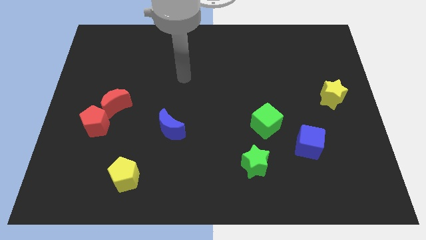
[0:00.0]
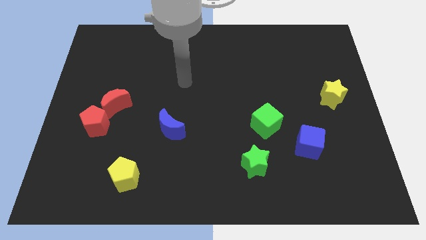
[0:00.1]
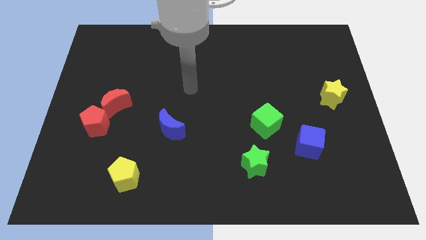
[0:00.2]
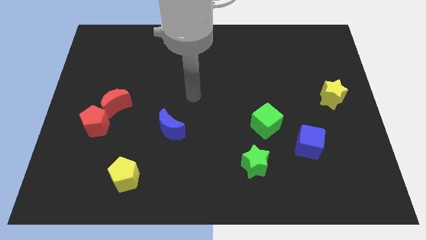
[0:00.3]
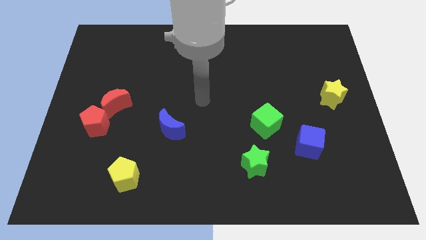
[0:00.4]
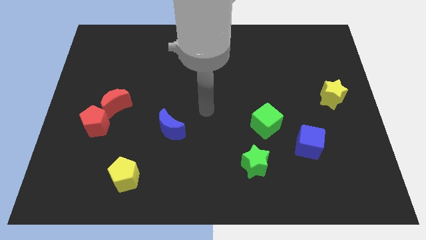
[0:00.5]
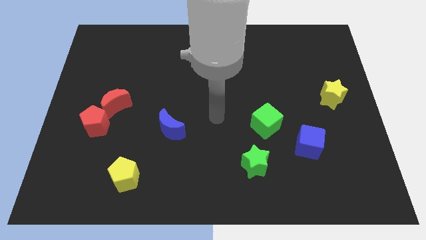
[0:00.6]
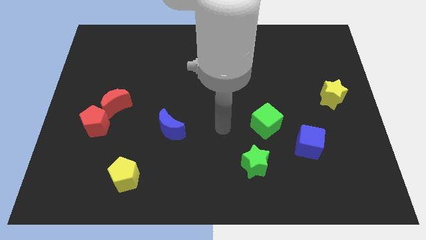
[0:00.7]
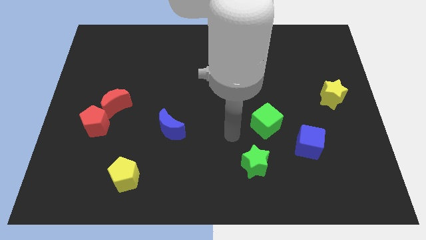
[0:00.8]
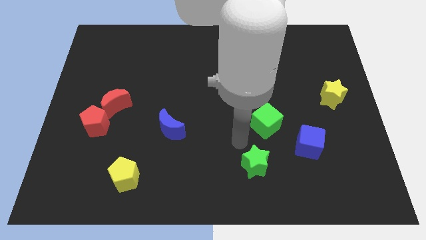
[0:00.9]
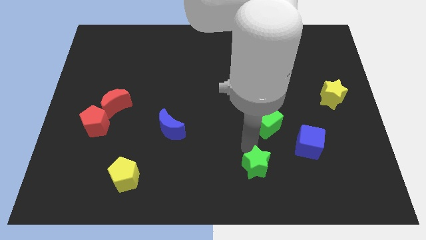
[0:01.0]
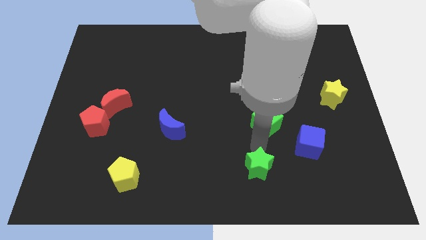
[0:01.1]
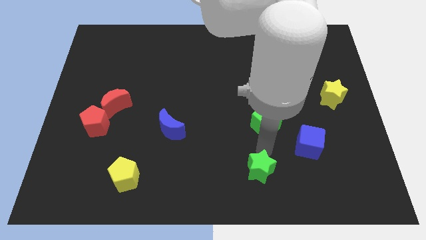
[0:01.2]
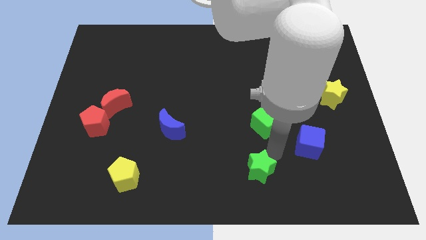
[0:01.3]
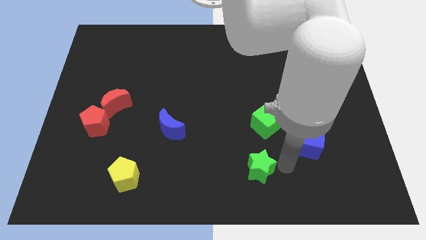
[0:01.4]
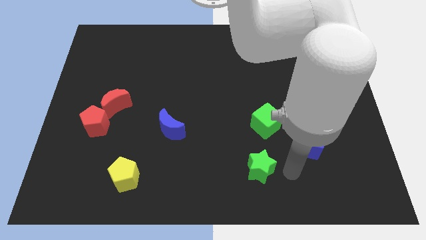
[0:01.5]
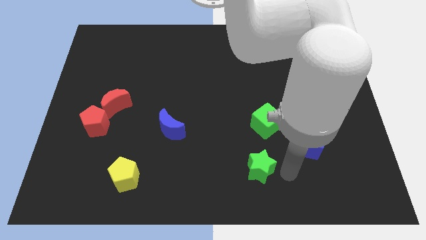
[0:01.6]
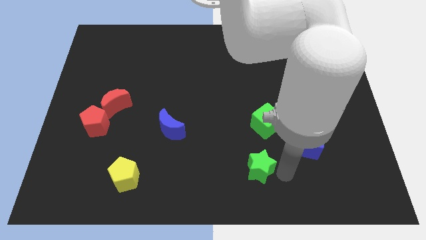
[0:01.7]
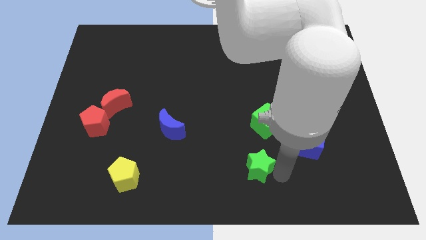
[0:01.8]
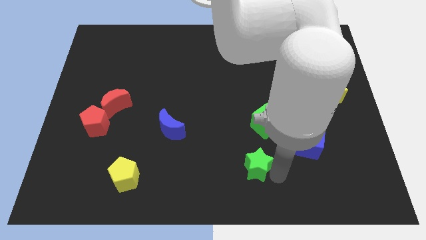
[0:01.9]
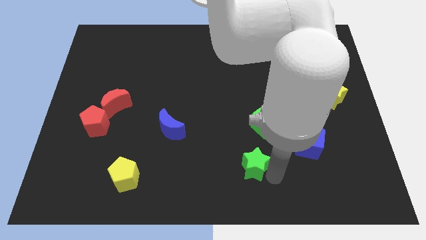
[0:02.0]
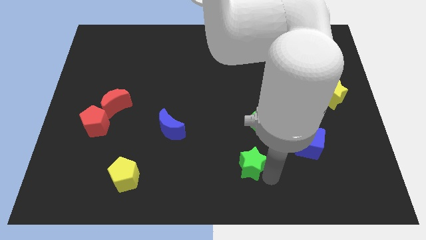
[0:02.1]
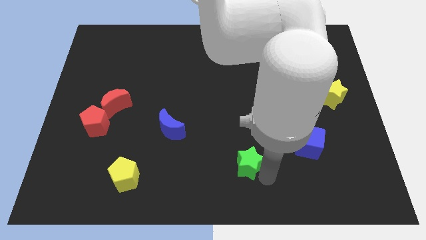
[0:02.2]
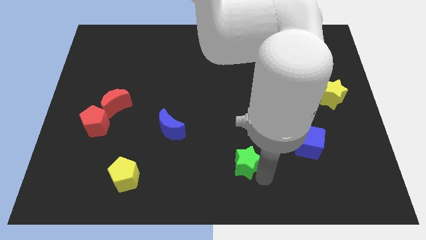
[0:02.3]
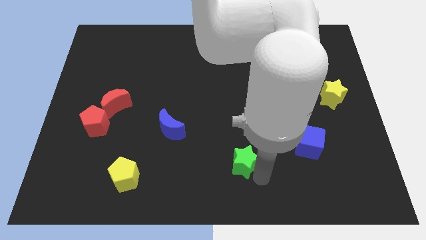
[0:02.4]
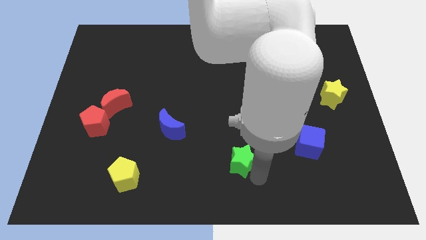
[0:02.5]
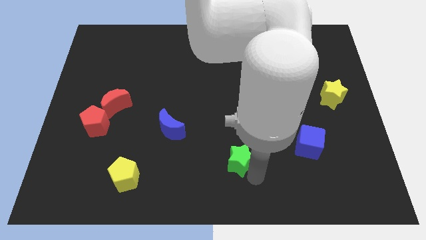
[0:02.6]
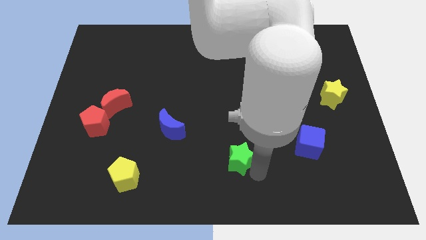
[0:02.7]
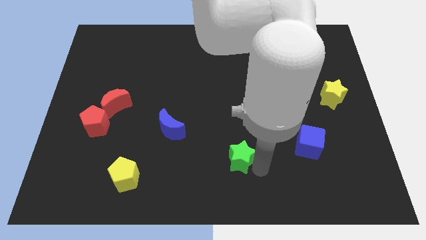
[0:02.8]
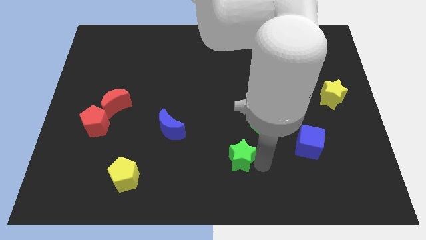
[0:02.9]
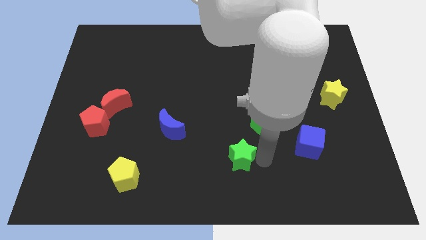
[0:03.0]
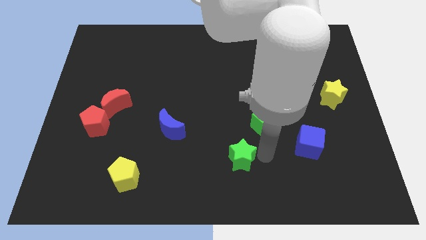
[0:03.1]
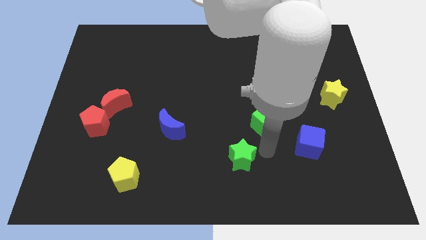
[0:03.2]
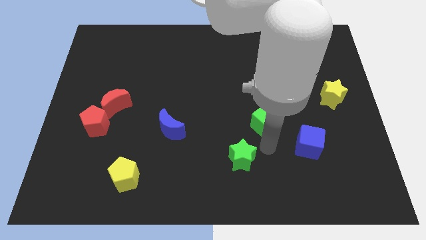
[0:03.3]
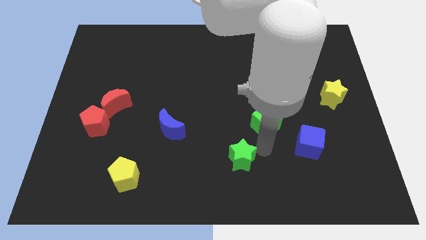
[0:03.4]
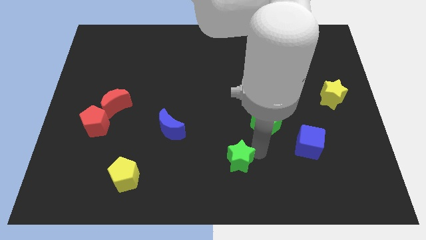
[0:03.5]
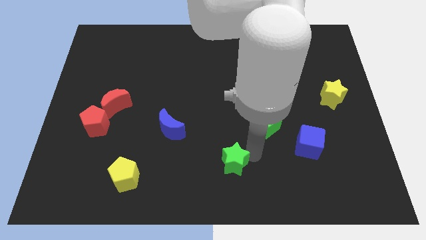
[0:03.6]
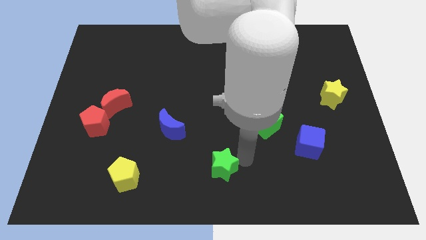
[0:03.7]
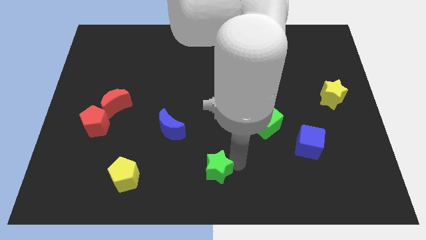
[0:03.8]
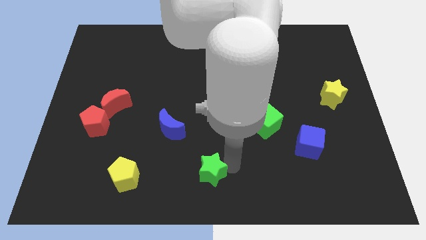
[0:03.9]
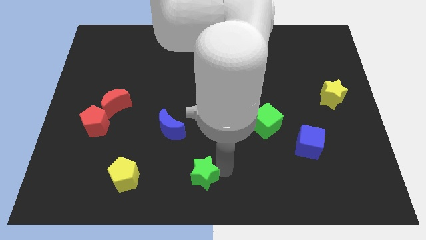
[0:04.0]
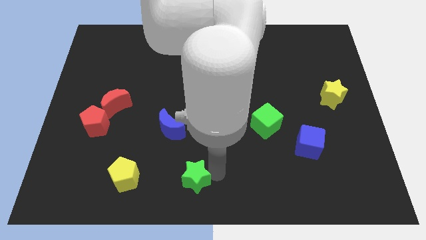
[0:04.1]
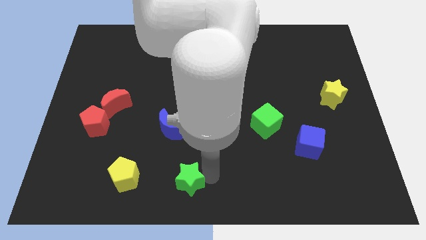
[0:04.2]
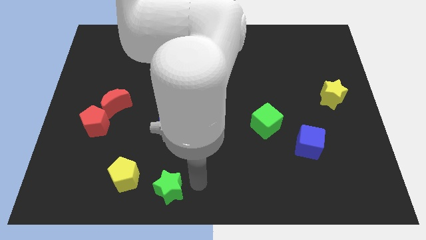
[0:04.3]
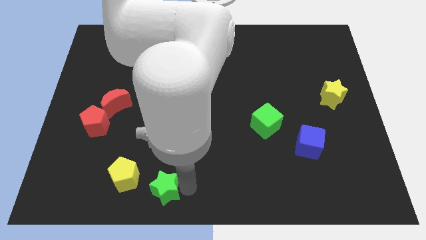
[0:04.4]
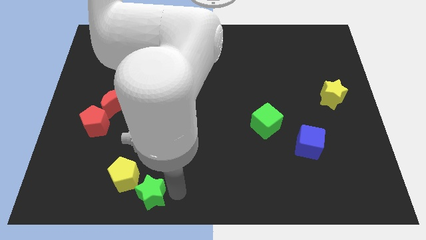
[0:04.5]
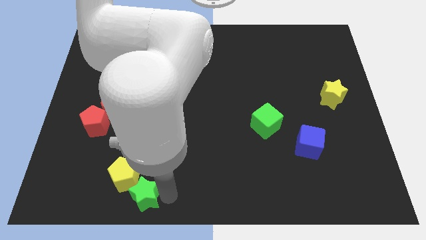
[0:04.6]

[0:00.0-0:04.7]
slide the green star close to the yellow pentagon

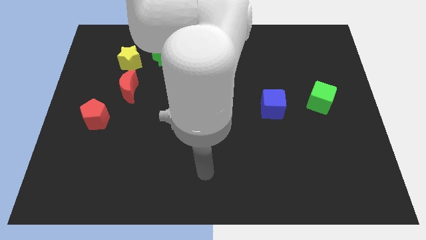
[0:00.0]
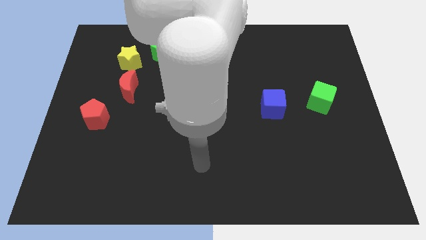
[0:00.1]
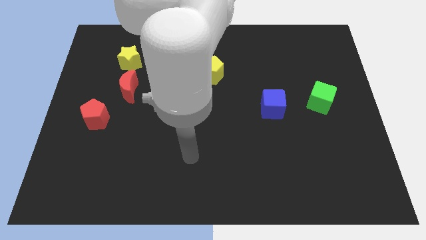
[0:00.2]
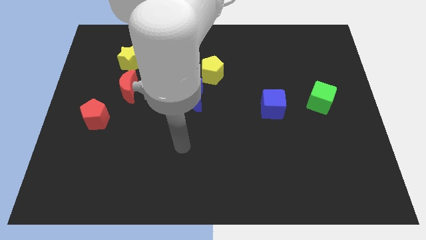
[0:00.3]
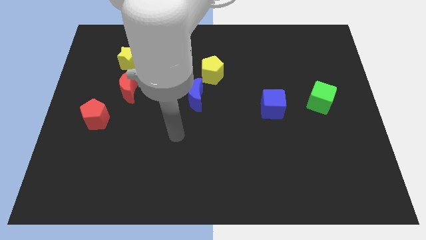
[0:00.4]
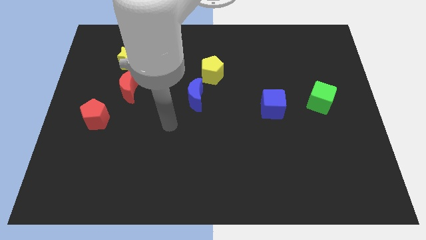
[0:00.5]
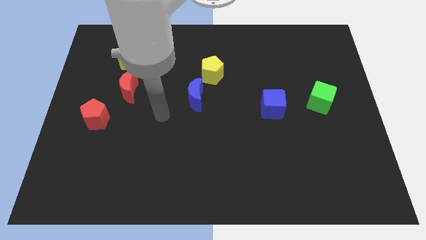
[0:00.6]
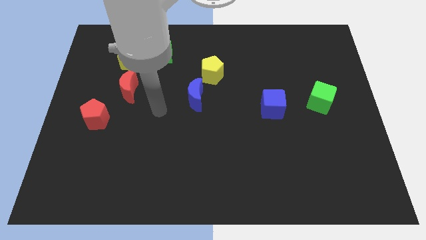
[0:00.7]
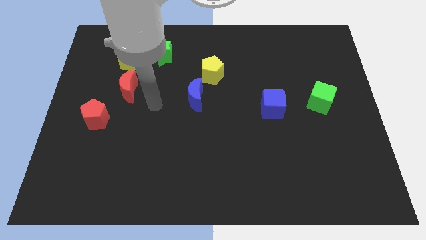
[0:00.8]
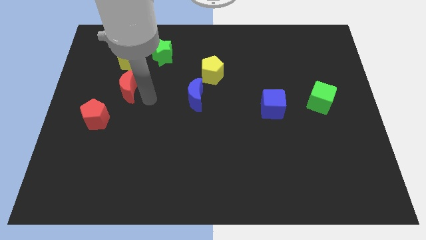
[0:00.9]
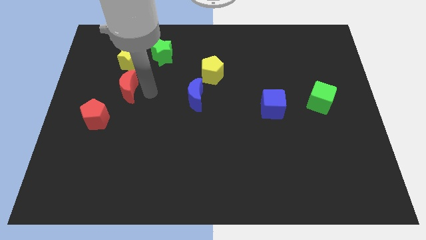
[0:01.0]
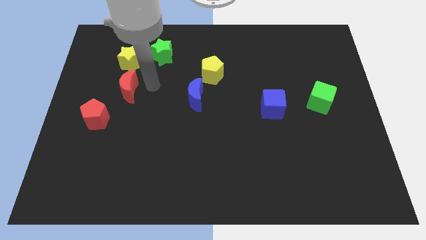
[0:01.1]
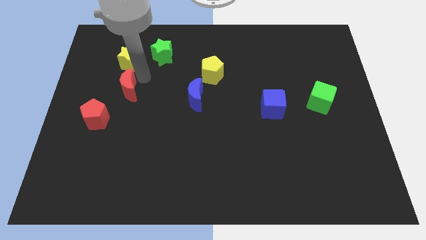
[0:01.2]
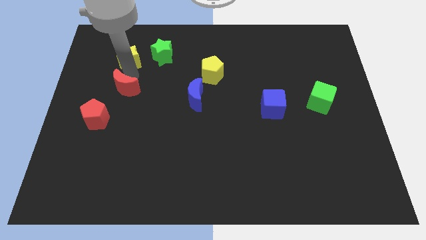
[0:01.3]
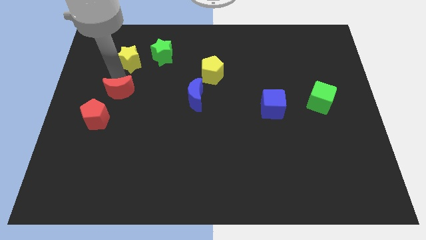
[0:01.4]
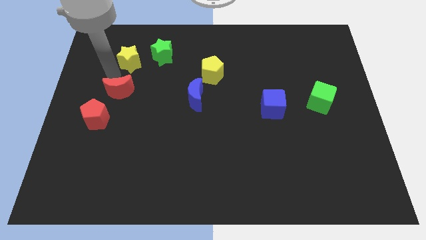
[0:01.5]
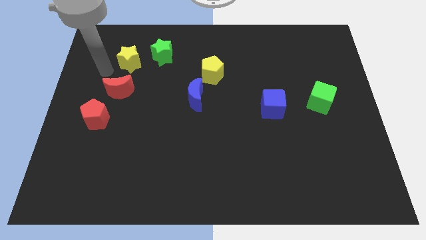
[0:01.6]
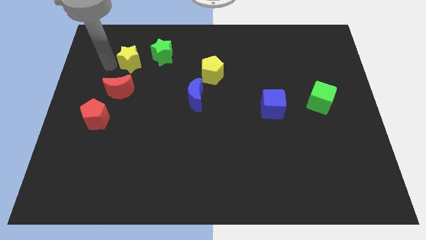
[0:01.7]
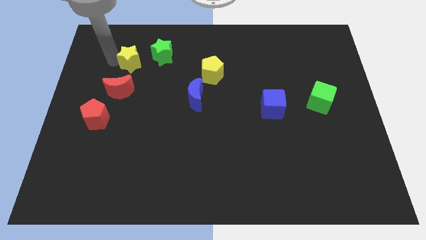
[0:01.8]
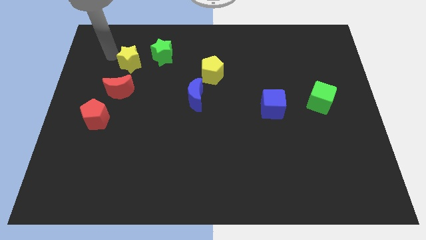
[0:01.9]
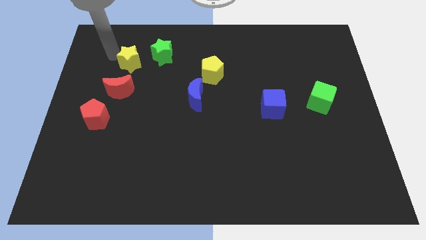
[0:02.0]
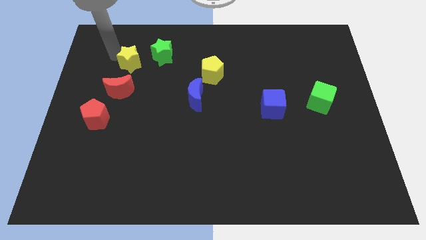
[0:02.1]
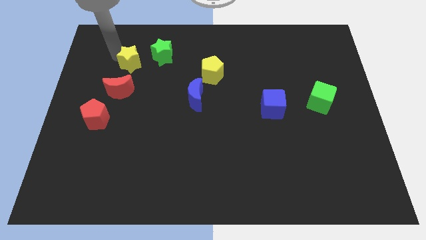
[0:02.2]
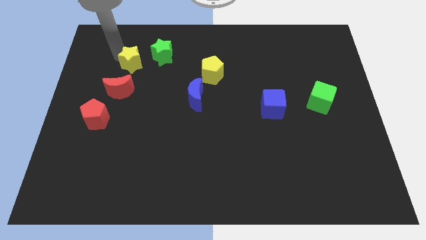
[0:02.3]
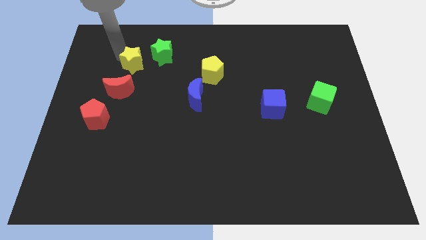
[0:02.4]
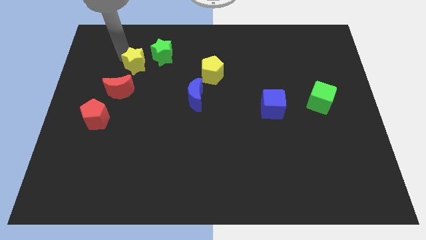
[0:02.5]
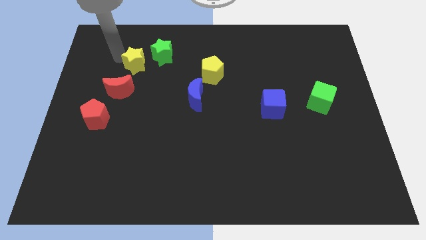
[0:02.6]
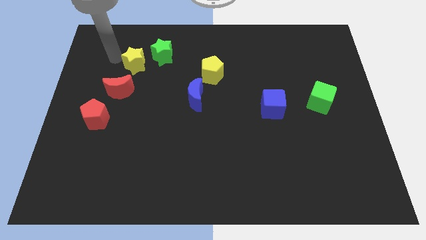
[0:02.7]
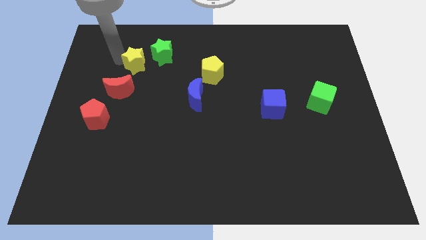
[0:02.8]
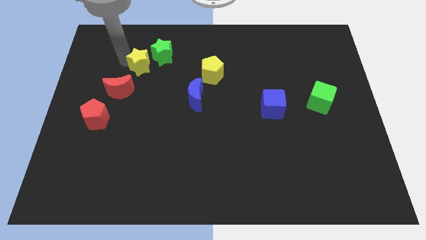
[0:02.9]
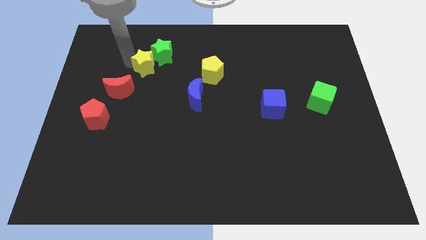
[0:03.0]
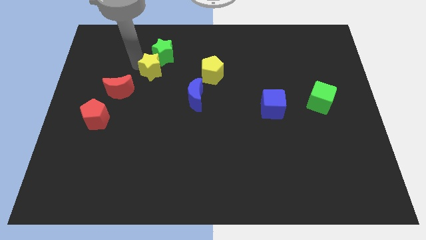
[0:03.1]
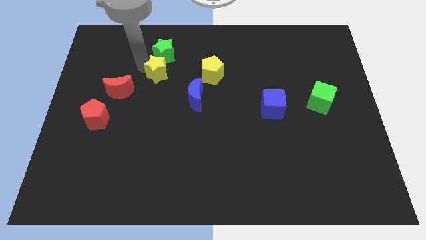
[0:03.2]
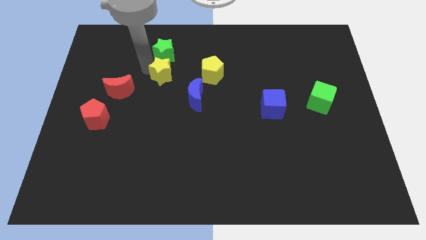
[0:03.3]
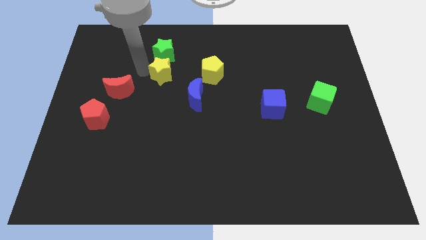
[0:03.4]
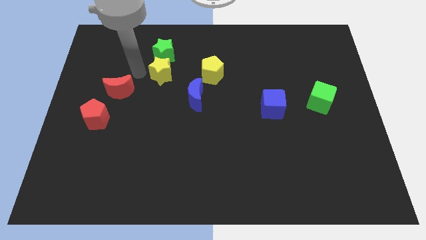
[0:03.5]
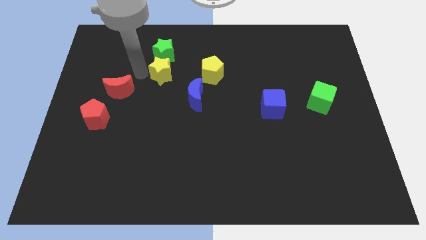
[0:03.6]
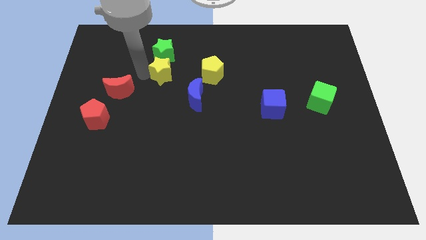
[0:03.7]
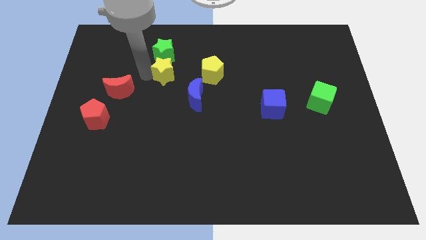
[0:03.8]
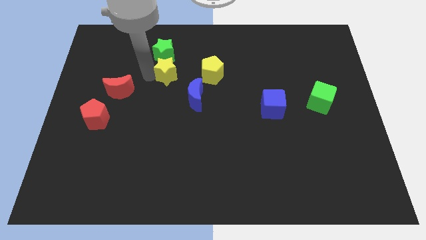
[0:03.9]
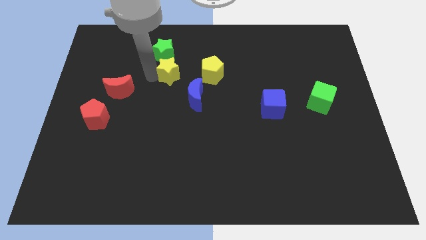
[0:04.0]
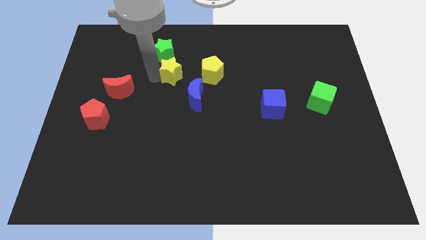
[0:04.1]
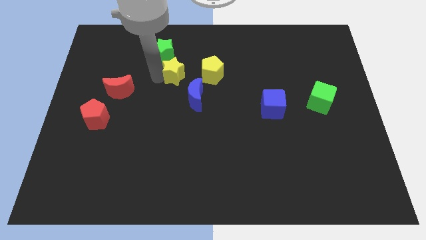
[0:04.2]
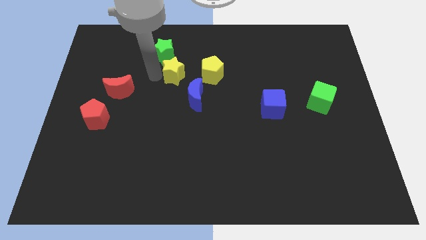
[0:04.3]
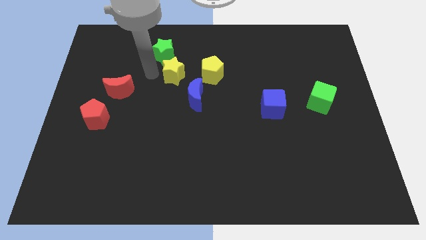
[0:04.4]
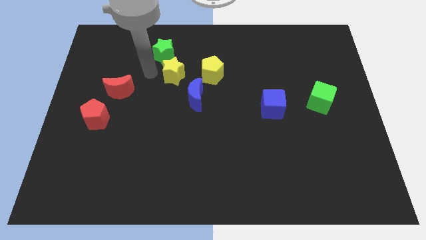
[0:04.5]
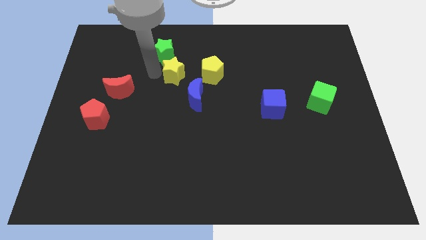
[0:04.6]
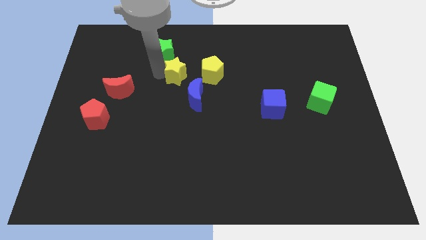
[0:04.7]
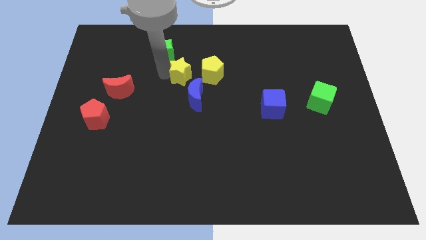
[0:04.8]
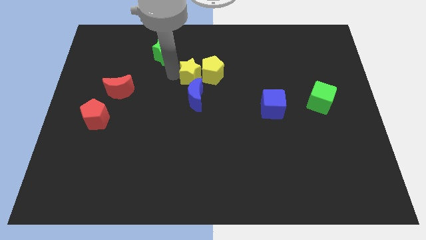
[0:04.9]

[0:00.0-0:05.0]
move the yellow star to the yellow pentagon
